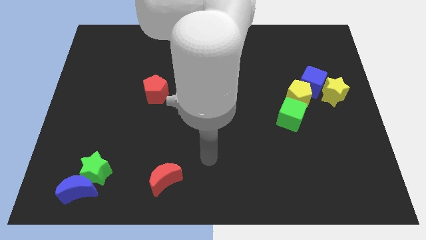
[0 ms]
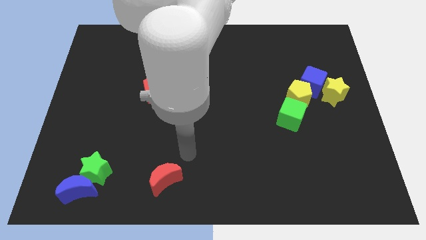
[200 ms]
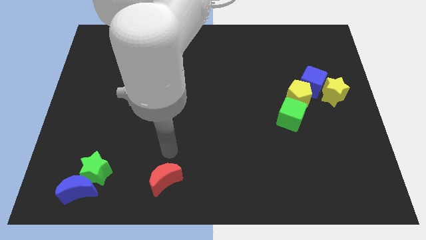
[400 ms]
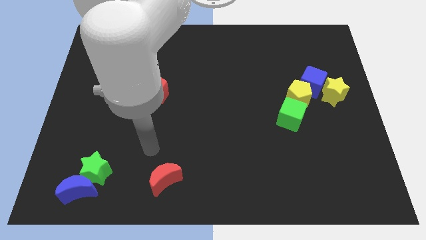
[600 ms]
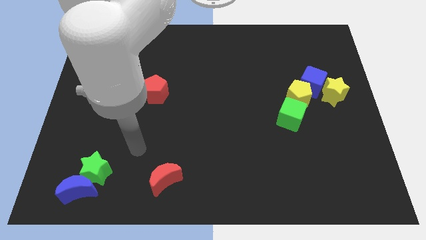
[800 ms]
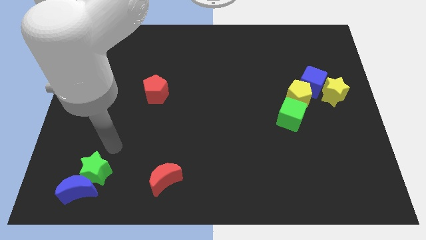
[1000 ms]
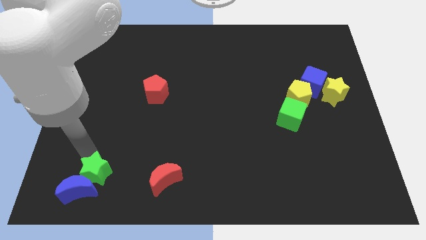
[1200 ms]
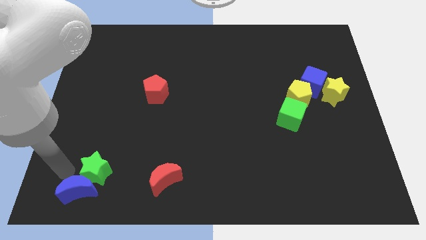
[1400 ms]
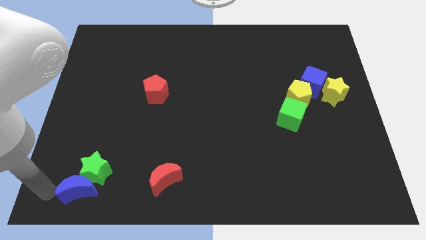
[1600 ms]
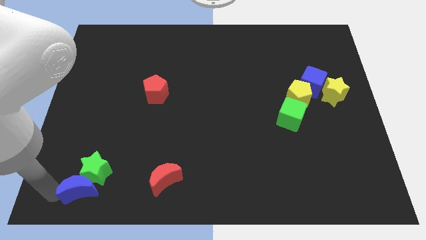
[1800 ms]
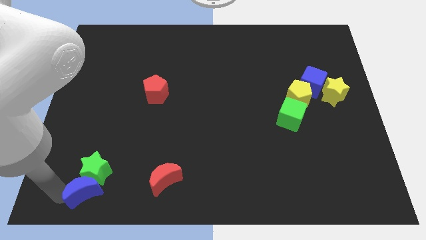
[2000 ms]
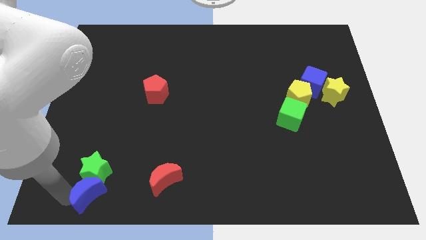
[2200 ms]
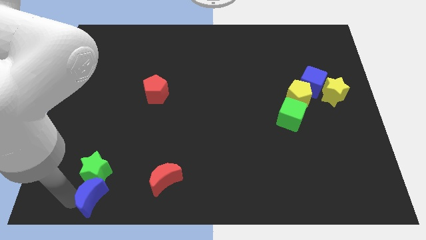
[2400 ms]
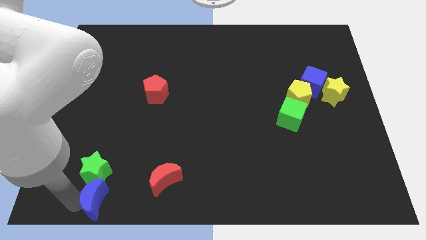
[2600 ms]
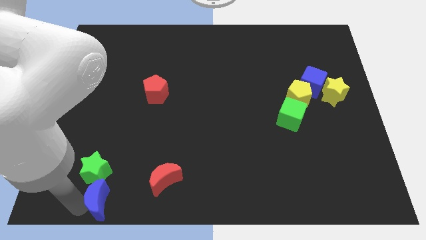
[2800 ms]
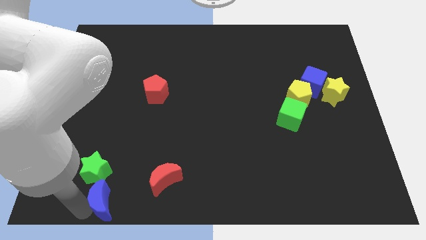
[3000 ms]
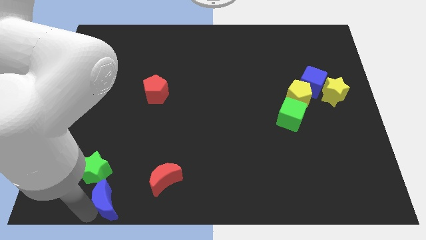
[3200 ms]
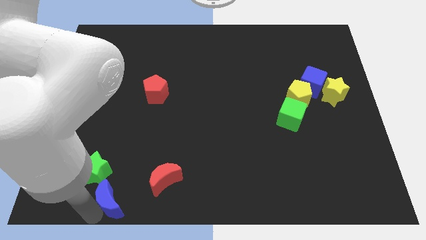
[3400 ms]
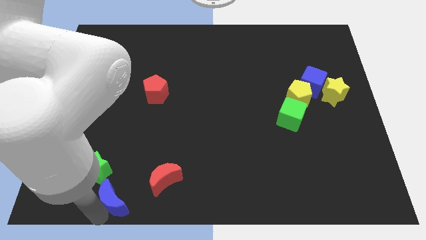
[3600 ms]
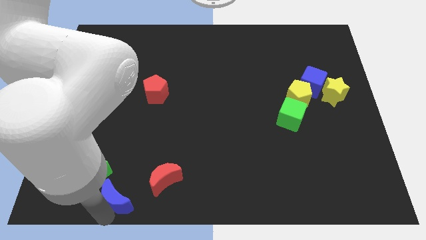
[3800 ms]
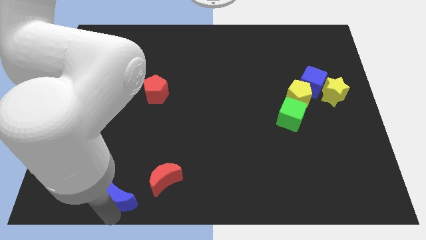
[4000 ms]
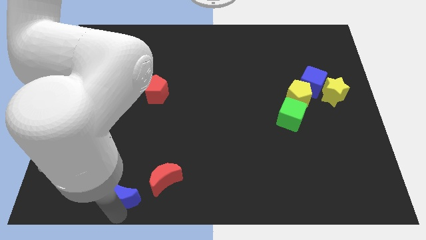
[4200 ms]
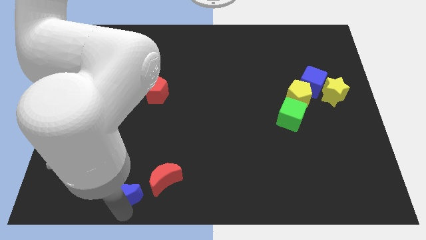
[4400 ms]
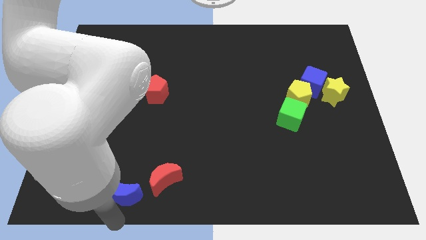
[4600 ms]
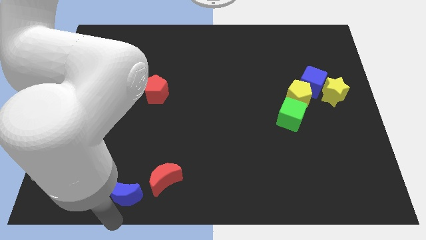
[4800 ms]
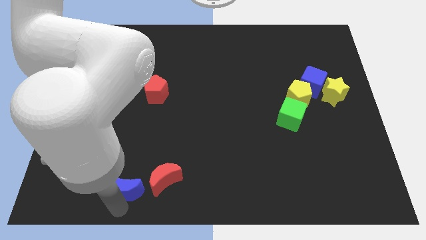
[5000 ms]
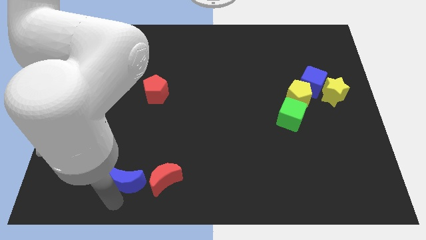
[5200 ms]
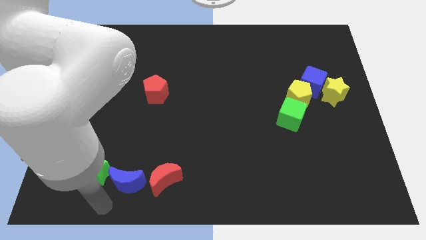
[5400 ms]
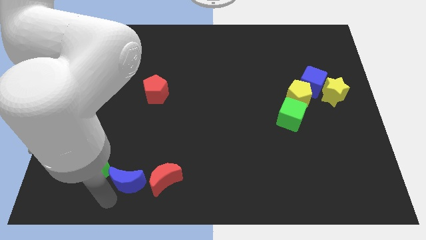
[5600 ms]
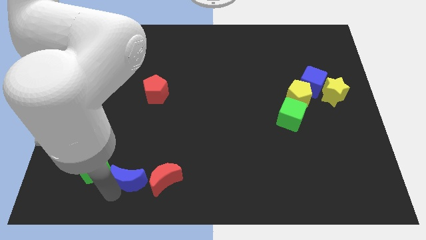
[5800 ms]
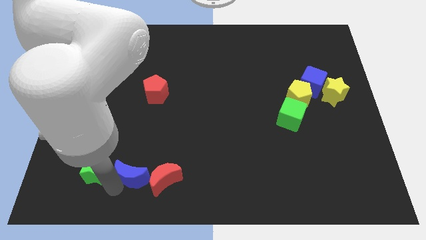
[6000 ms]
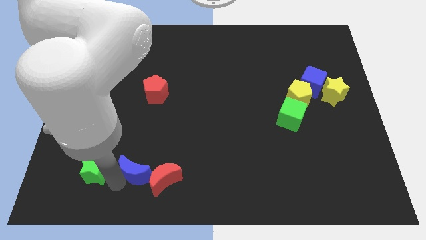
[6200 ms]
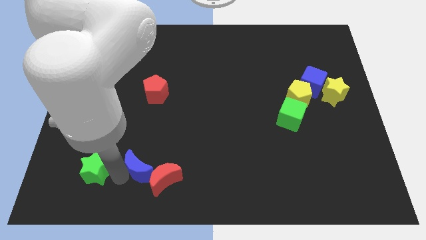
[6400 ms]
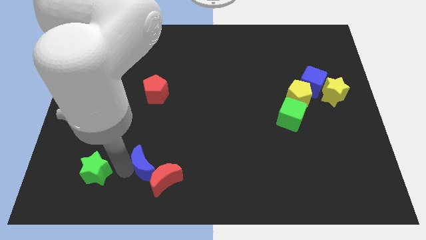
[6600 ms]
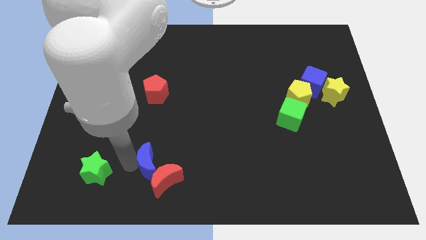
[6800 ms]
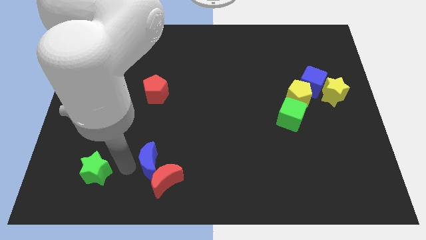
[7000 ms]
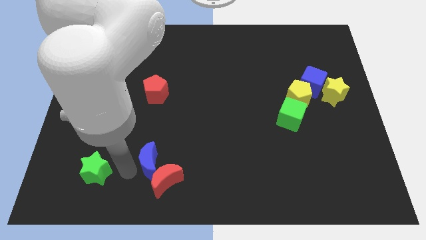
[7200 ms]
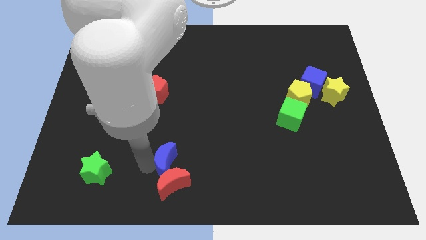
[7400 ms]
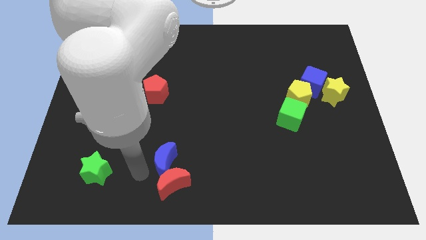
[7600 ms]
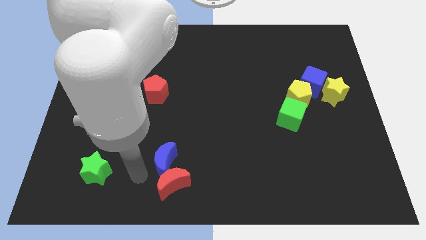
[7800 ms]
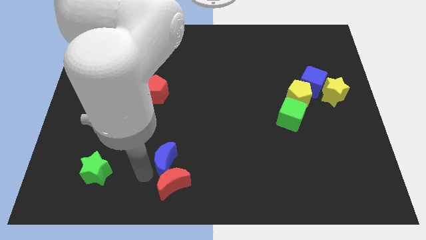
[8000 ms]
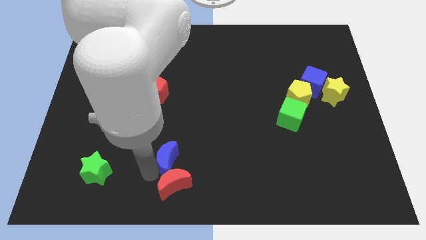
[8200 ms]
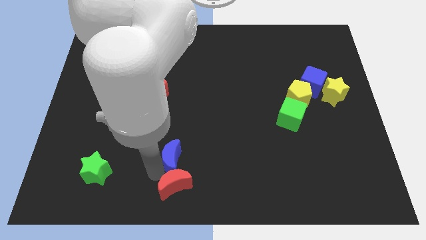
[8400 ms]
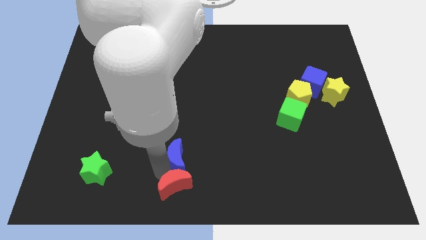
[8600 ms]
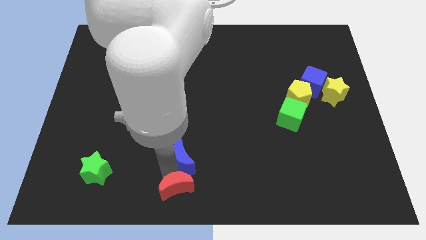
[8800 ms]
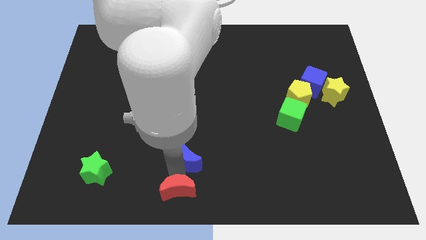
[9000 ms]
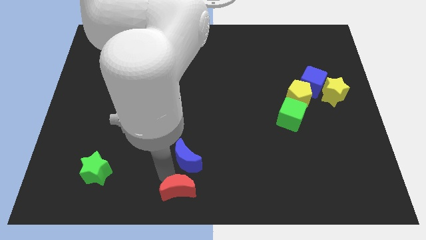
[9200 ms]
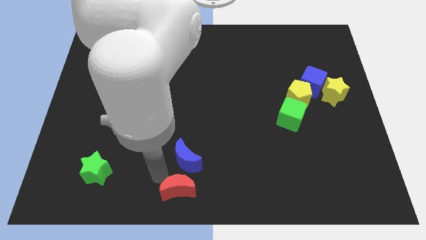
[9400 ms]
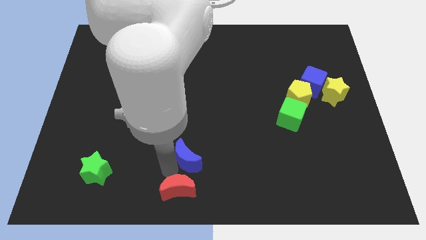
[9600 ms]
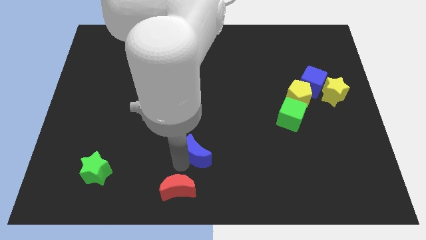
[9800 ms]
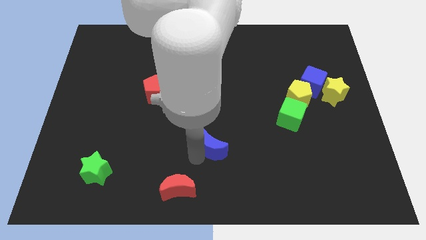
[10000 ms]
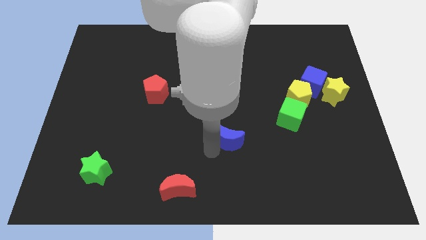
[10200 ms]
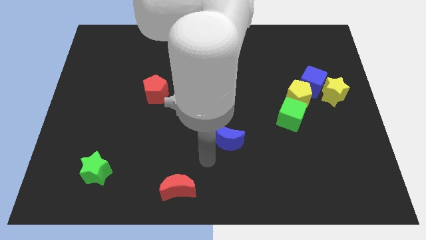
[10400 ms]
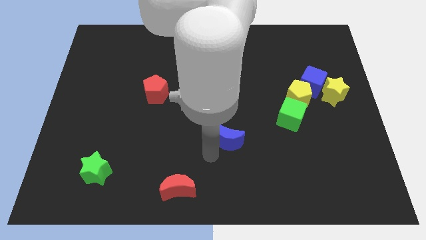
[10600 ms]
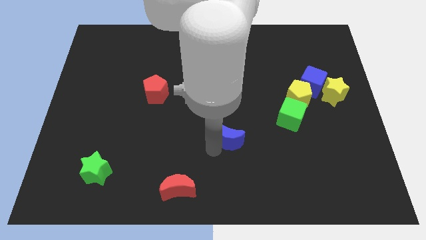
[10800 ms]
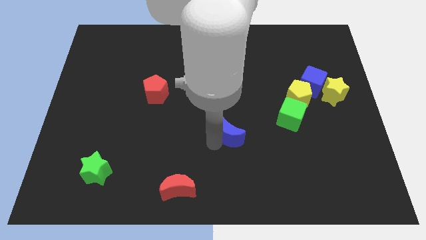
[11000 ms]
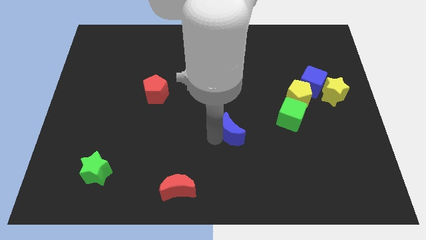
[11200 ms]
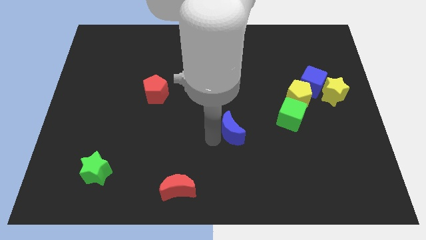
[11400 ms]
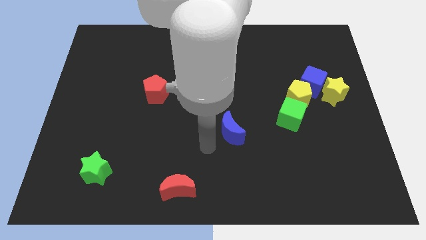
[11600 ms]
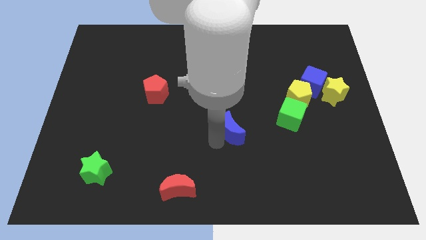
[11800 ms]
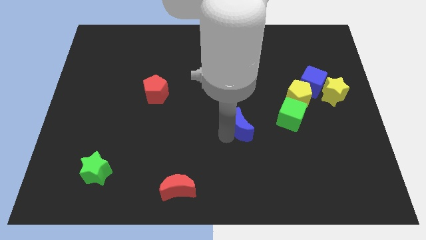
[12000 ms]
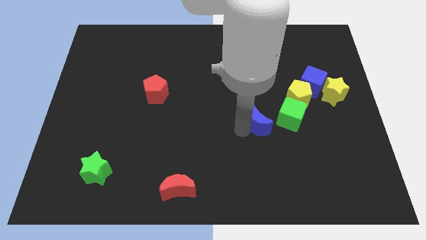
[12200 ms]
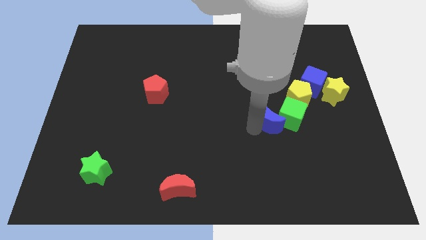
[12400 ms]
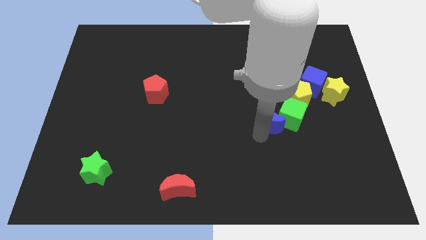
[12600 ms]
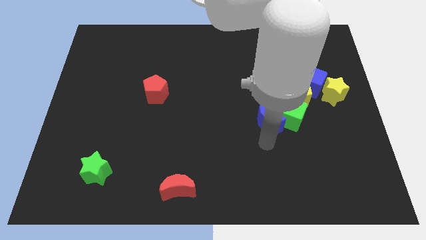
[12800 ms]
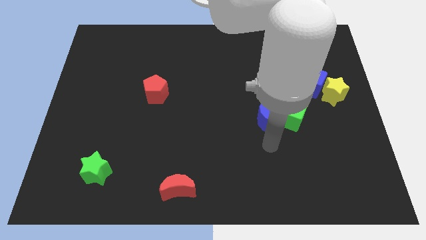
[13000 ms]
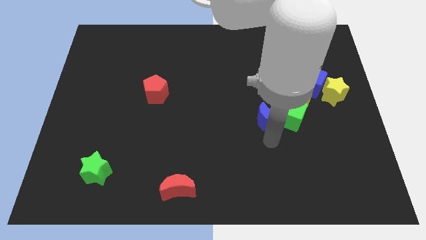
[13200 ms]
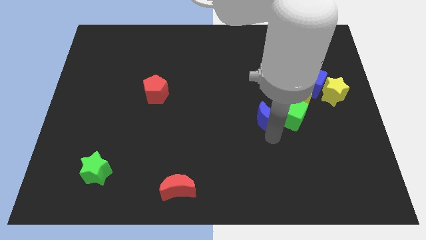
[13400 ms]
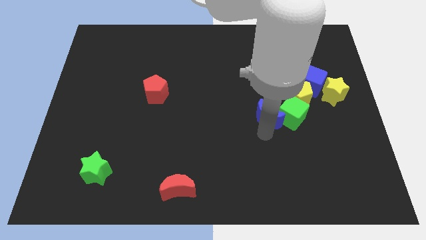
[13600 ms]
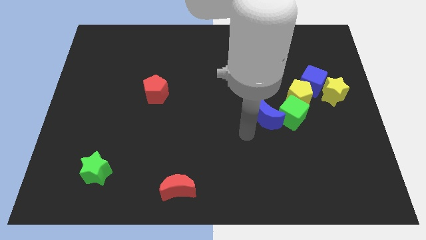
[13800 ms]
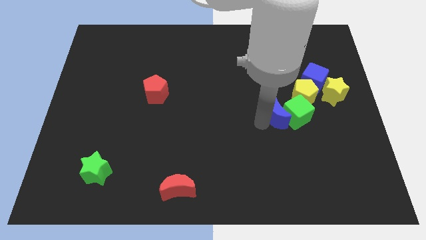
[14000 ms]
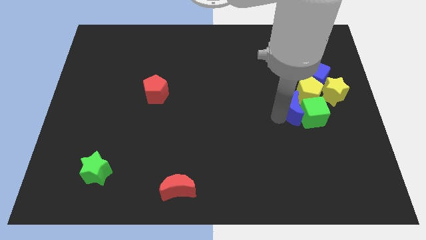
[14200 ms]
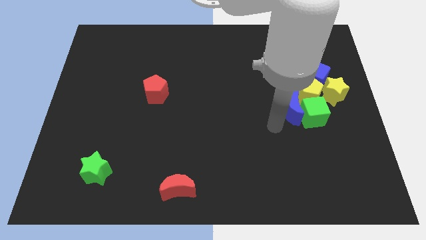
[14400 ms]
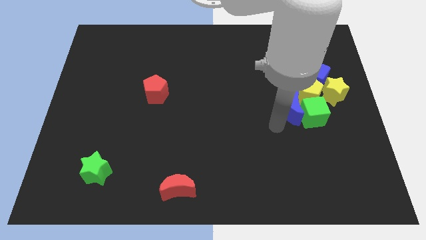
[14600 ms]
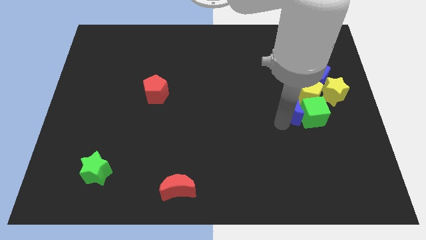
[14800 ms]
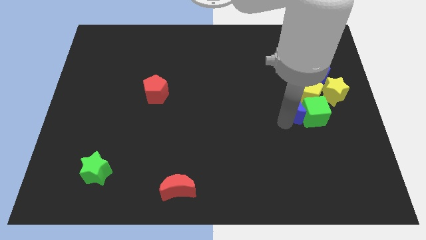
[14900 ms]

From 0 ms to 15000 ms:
move the blue moon to the yellow pentagon
